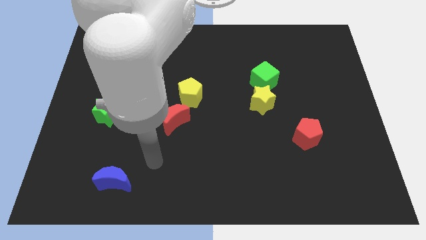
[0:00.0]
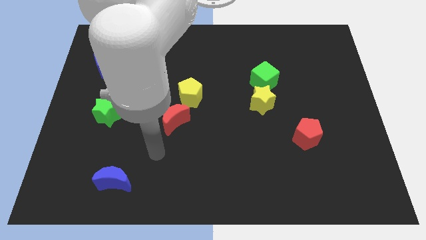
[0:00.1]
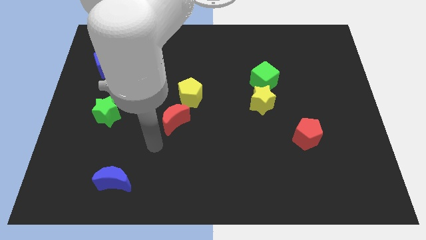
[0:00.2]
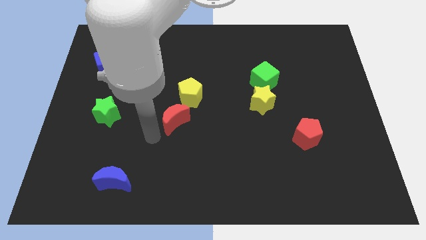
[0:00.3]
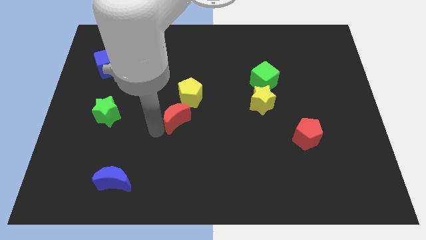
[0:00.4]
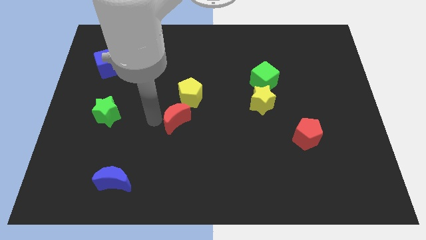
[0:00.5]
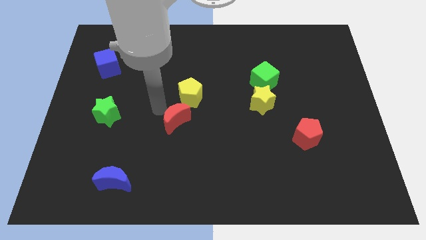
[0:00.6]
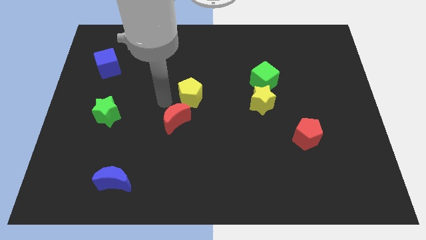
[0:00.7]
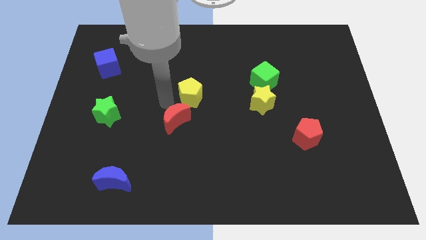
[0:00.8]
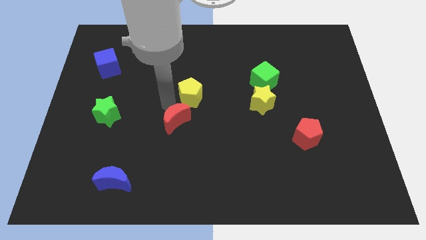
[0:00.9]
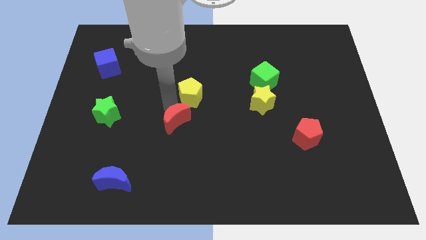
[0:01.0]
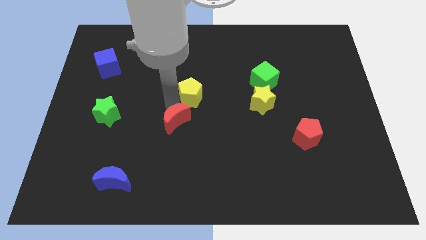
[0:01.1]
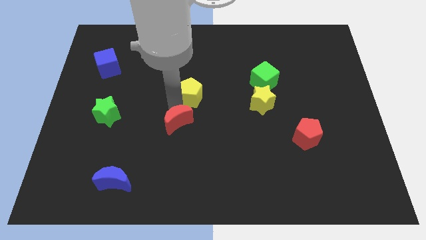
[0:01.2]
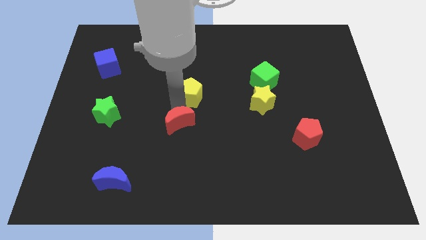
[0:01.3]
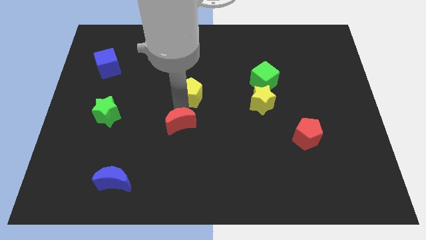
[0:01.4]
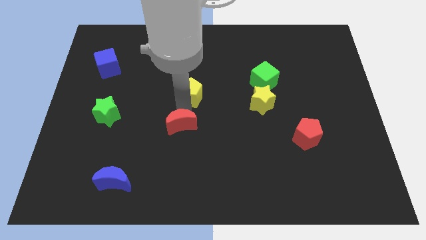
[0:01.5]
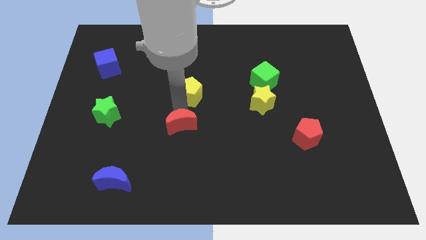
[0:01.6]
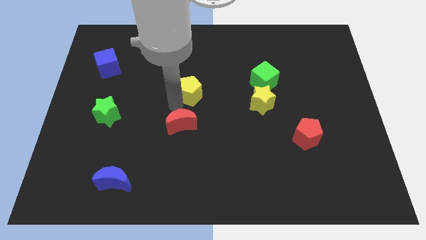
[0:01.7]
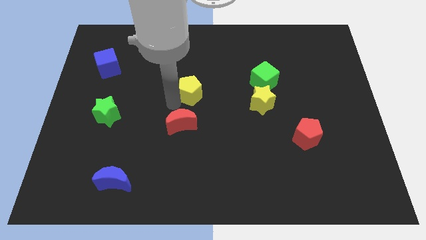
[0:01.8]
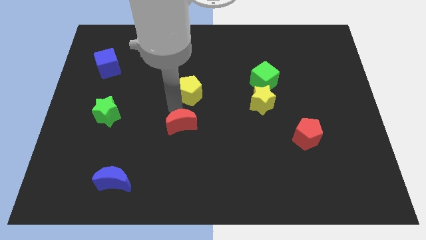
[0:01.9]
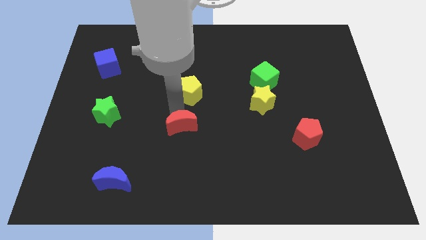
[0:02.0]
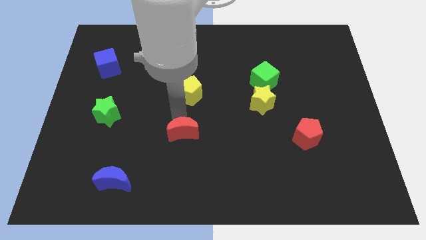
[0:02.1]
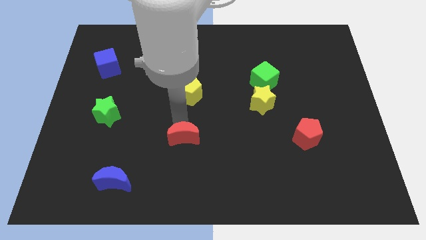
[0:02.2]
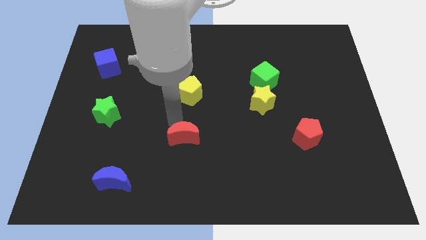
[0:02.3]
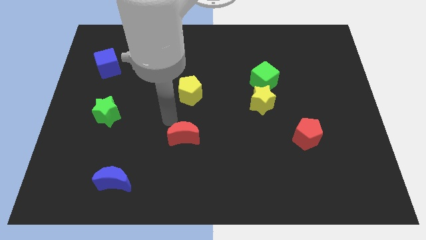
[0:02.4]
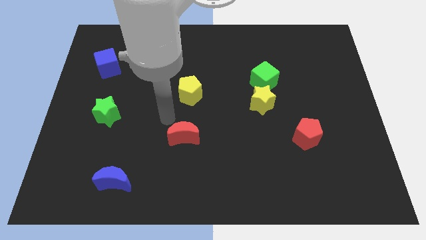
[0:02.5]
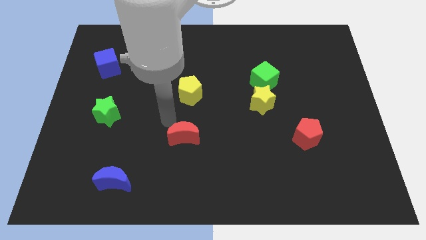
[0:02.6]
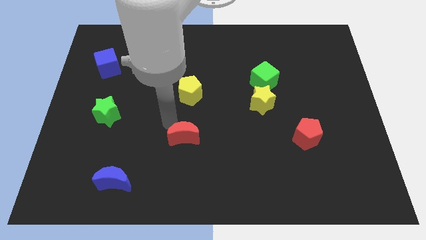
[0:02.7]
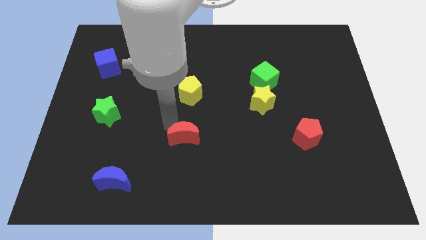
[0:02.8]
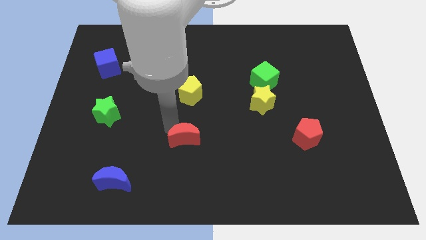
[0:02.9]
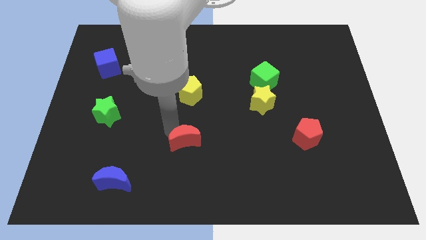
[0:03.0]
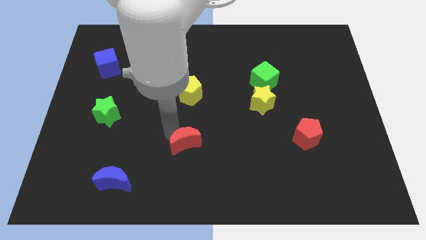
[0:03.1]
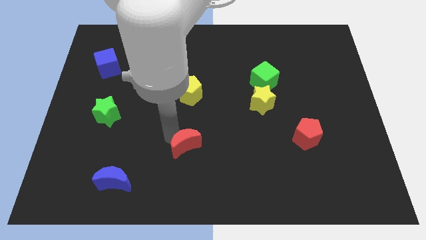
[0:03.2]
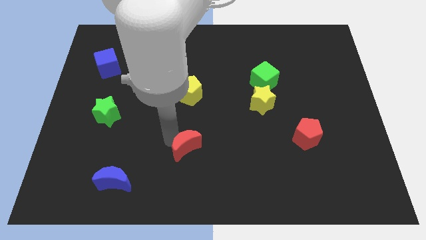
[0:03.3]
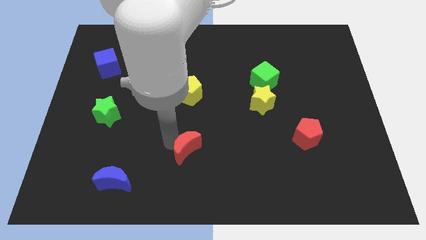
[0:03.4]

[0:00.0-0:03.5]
slightly push the red moon downwards and right diagonally

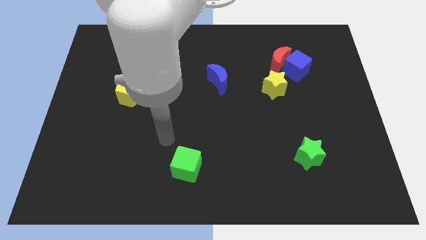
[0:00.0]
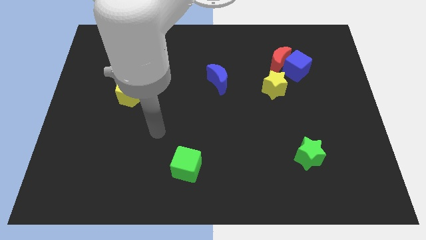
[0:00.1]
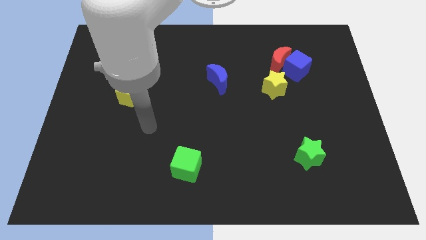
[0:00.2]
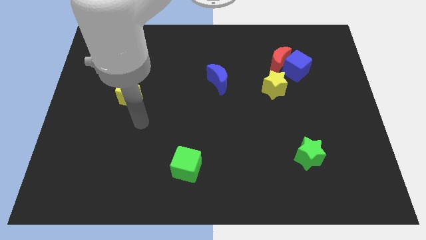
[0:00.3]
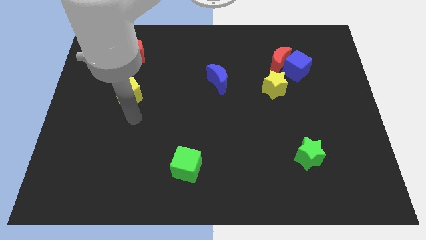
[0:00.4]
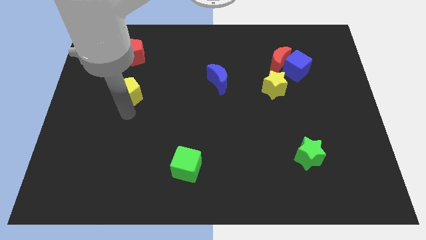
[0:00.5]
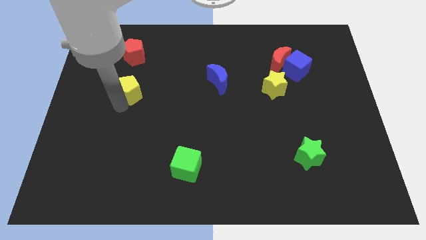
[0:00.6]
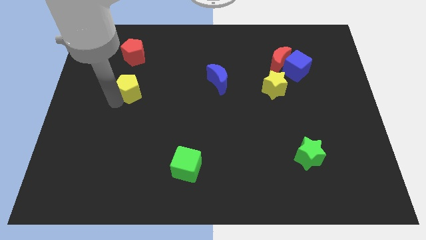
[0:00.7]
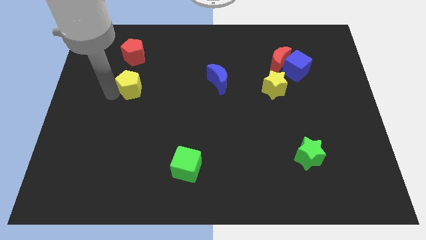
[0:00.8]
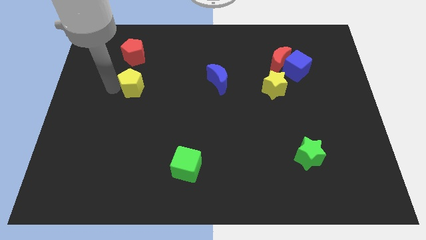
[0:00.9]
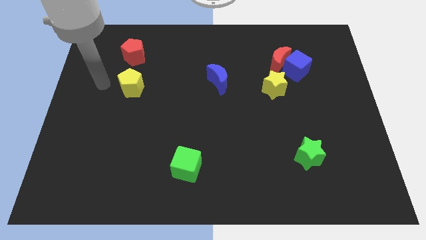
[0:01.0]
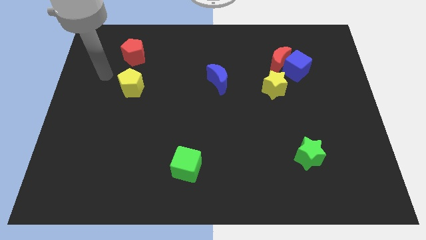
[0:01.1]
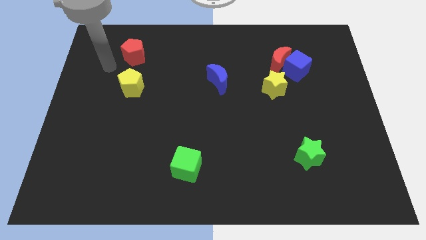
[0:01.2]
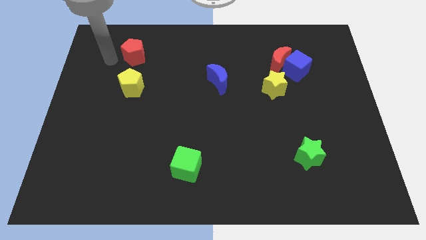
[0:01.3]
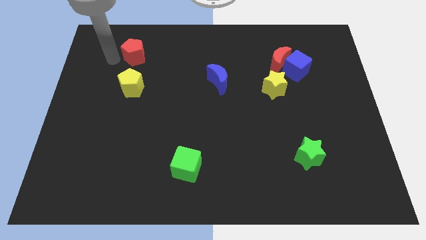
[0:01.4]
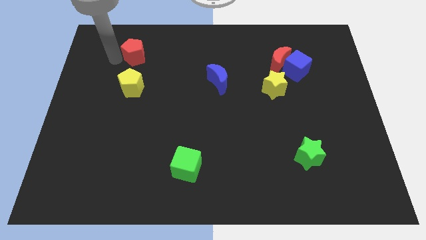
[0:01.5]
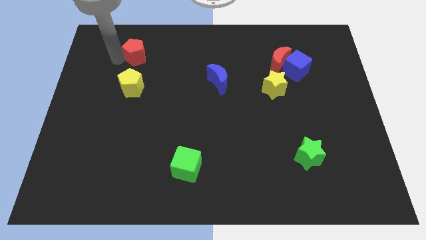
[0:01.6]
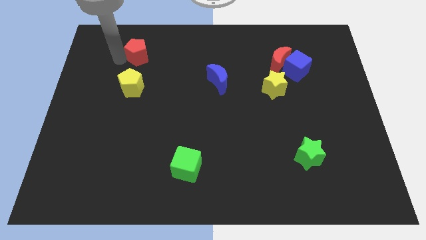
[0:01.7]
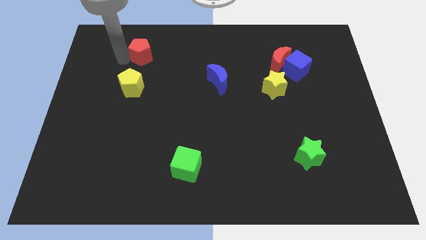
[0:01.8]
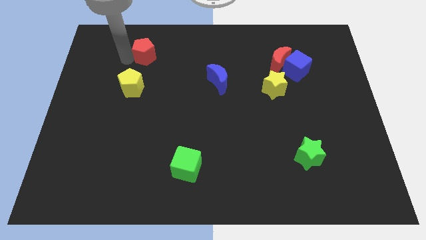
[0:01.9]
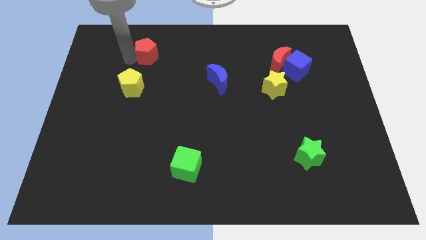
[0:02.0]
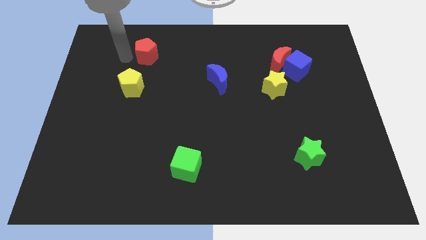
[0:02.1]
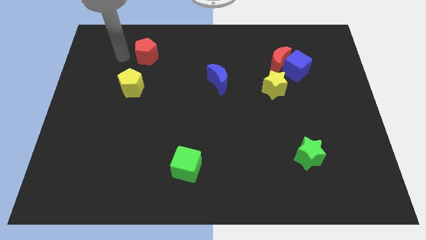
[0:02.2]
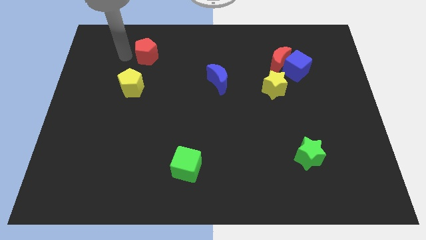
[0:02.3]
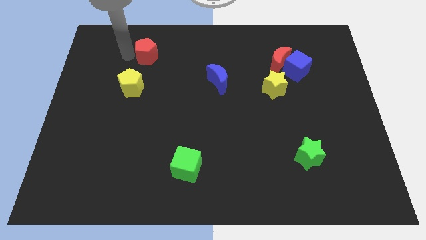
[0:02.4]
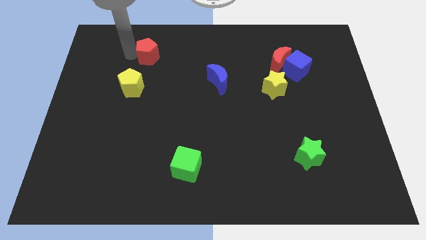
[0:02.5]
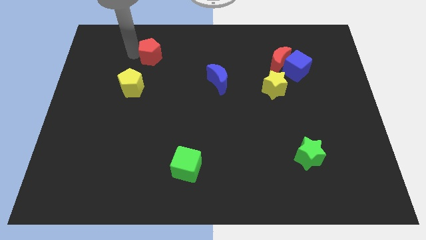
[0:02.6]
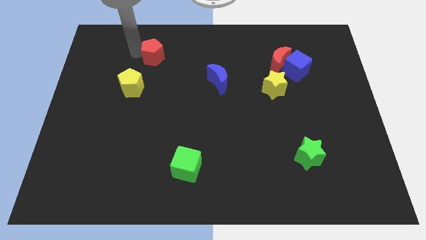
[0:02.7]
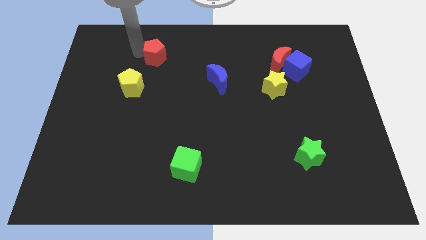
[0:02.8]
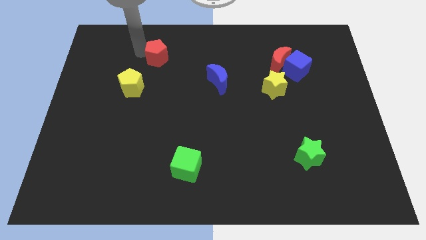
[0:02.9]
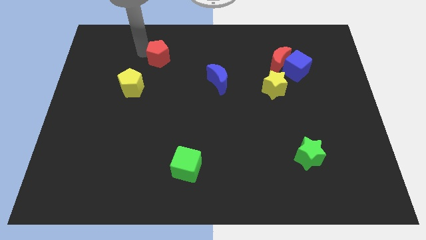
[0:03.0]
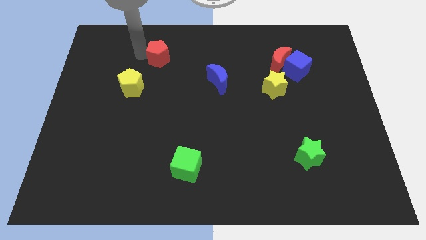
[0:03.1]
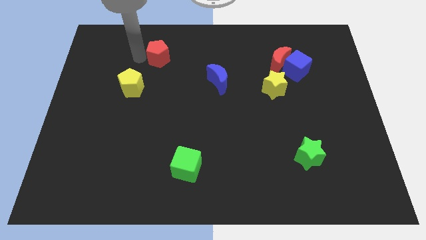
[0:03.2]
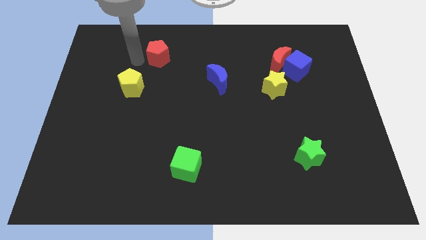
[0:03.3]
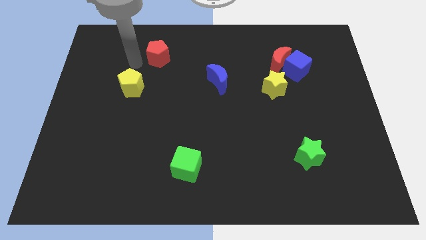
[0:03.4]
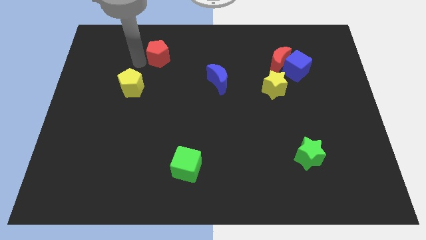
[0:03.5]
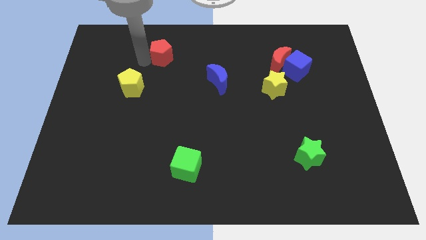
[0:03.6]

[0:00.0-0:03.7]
move the red pentagon right slightly

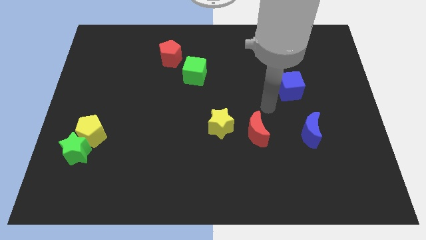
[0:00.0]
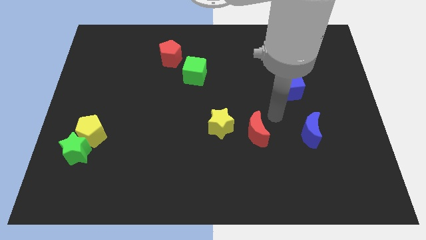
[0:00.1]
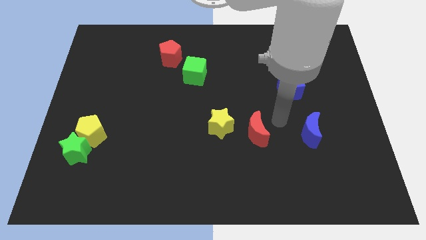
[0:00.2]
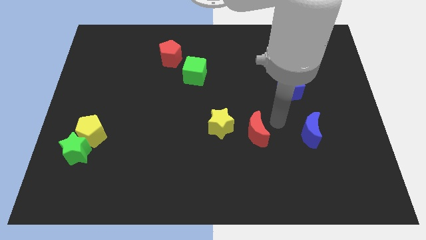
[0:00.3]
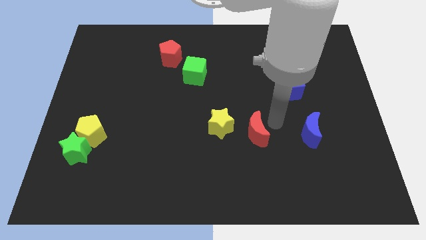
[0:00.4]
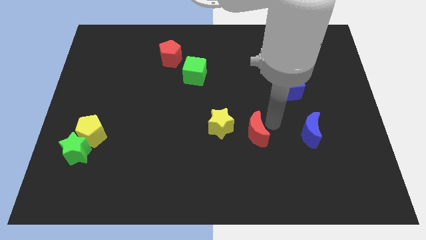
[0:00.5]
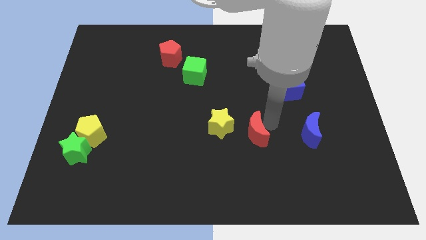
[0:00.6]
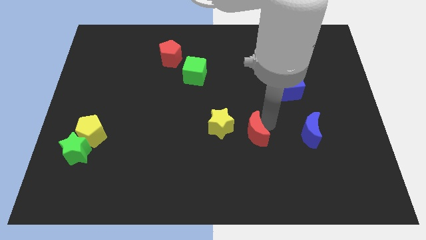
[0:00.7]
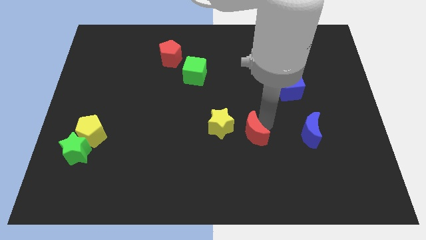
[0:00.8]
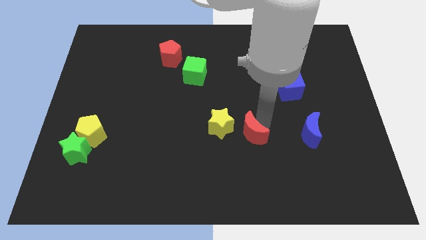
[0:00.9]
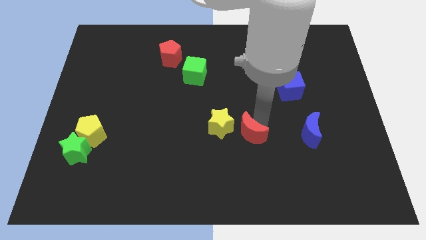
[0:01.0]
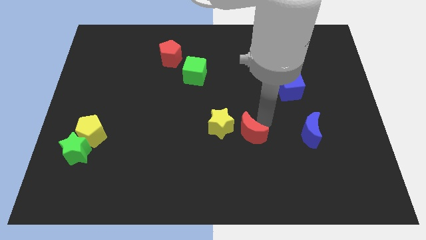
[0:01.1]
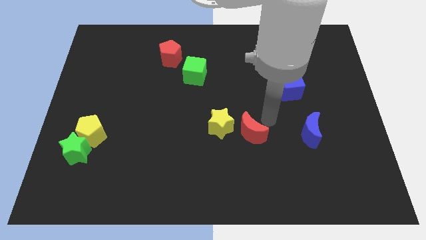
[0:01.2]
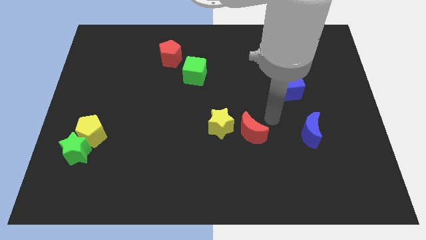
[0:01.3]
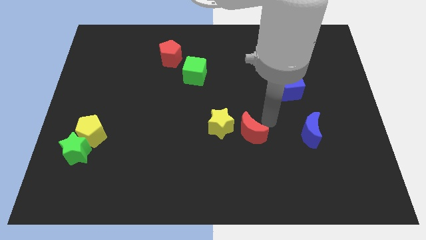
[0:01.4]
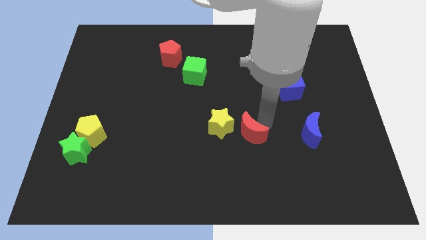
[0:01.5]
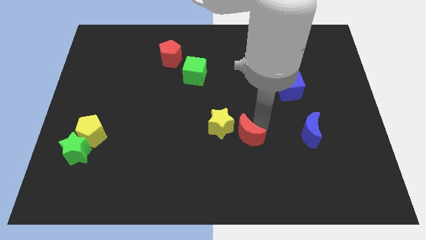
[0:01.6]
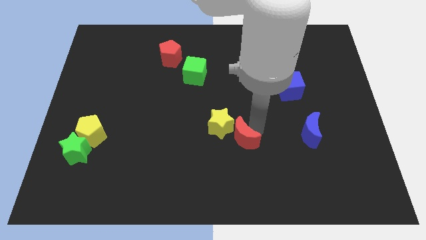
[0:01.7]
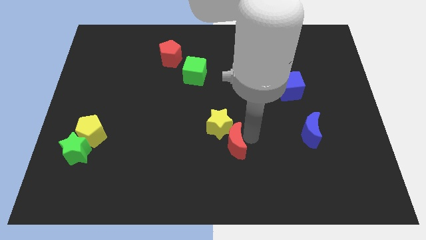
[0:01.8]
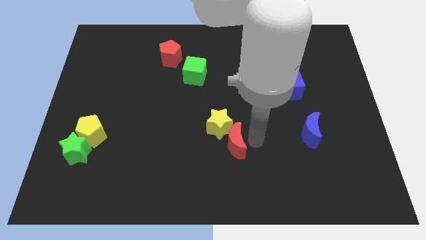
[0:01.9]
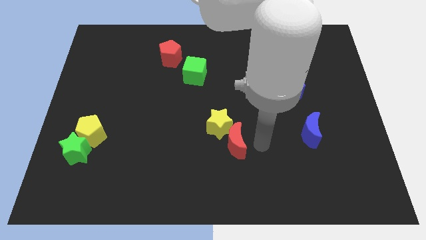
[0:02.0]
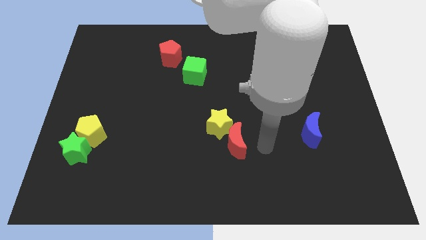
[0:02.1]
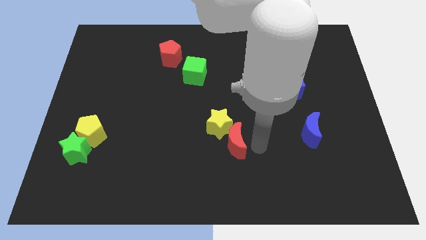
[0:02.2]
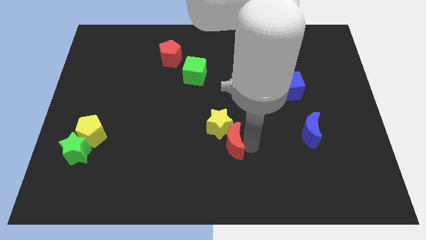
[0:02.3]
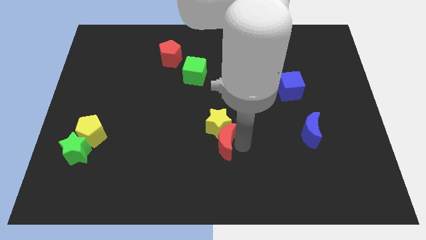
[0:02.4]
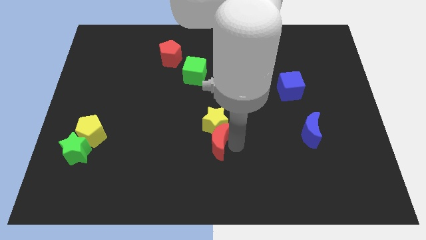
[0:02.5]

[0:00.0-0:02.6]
slightly move the red moon left
